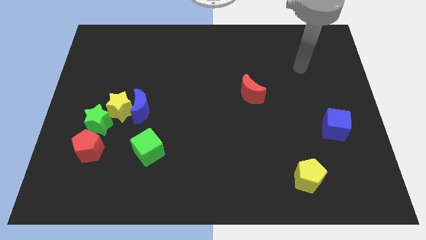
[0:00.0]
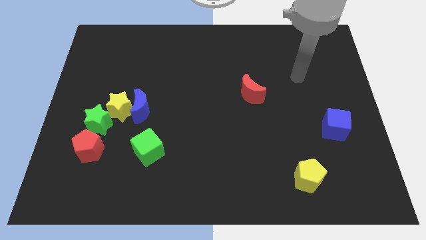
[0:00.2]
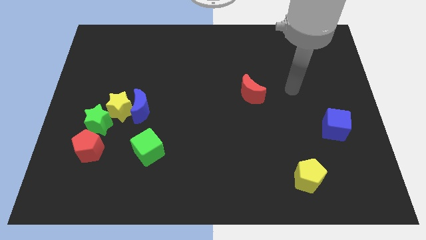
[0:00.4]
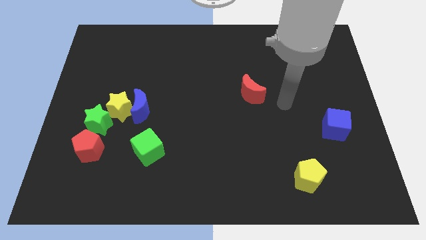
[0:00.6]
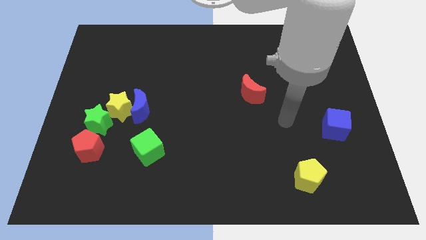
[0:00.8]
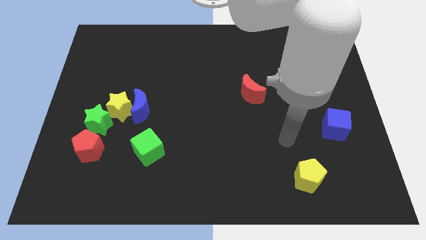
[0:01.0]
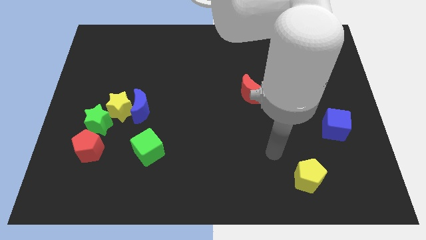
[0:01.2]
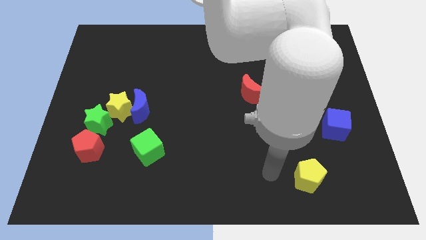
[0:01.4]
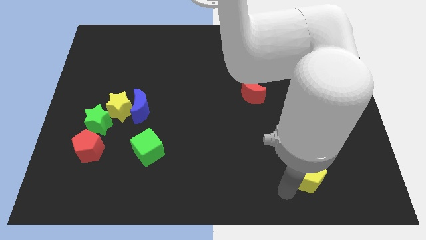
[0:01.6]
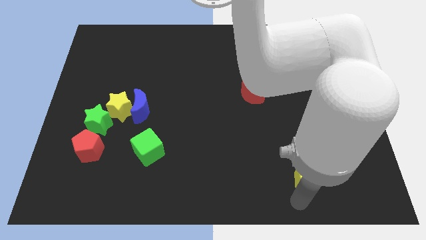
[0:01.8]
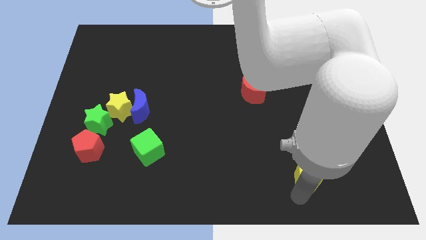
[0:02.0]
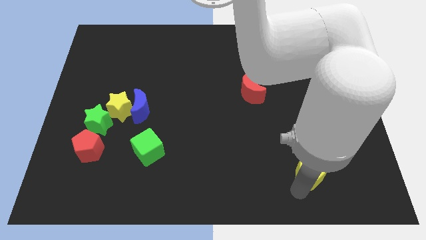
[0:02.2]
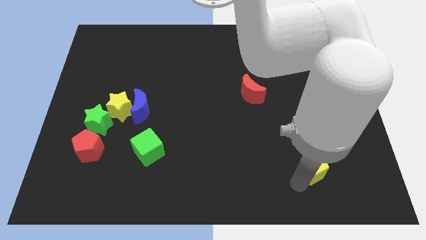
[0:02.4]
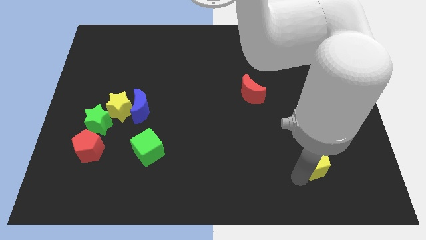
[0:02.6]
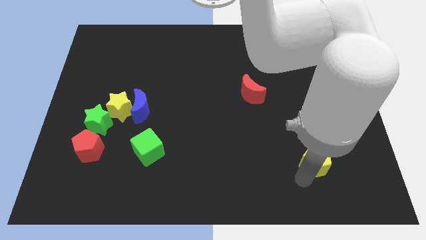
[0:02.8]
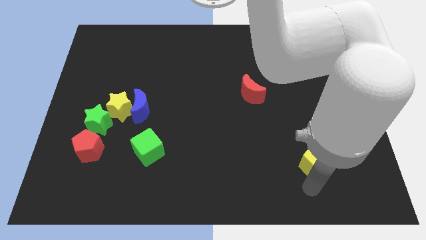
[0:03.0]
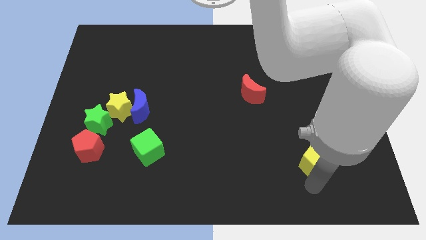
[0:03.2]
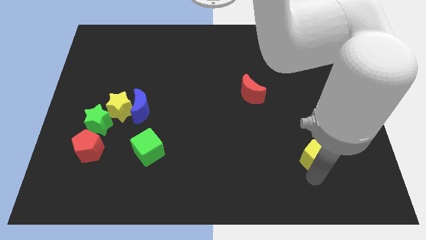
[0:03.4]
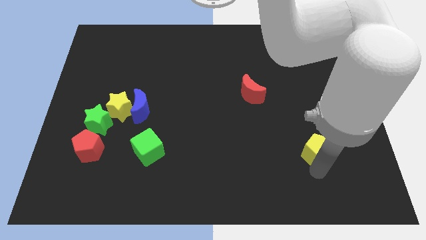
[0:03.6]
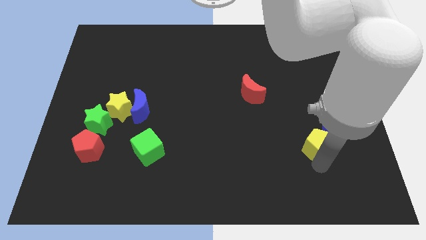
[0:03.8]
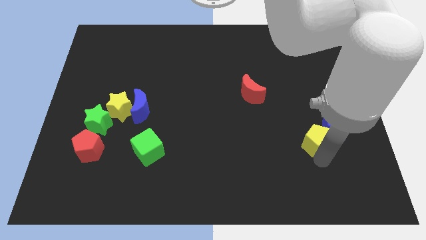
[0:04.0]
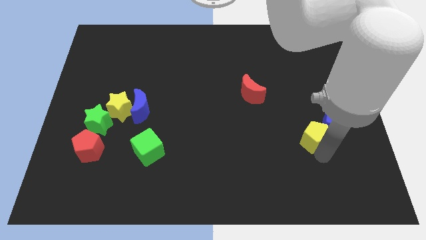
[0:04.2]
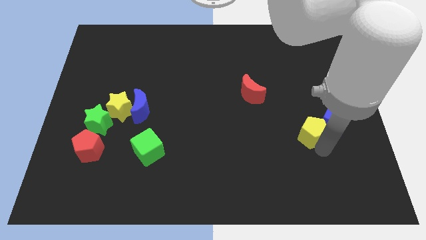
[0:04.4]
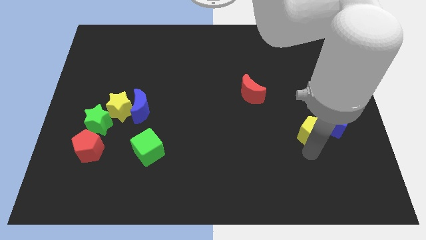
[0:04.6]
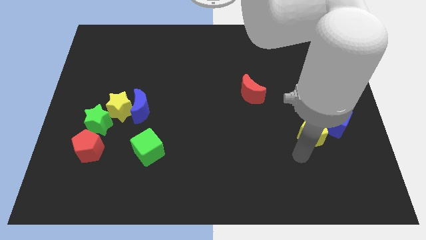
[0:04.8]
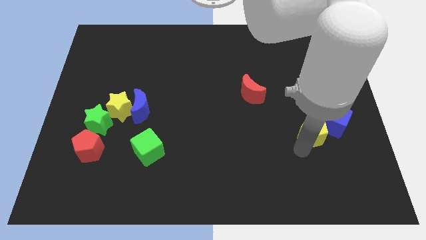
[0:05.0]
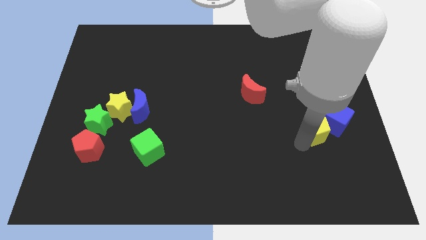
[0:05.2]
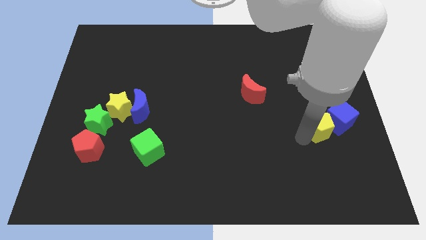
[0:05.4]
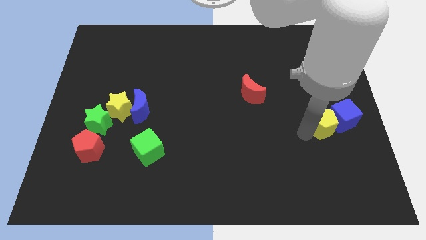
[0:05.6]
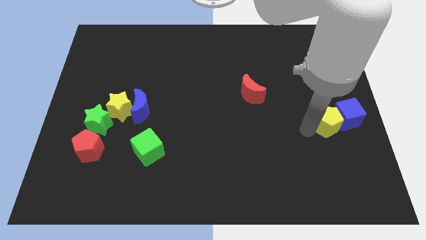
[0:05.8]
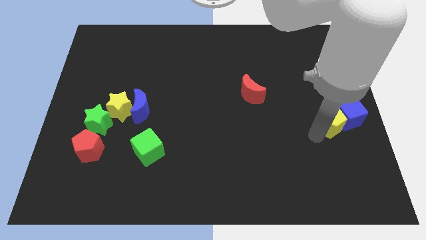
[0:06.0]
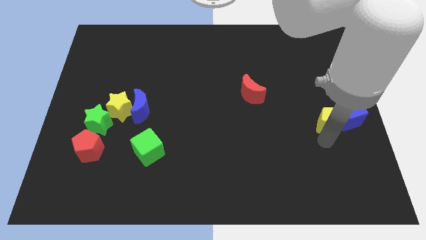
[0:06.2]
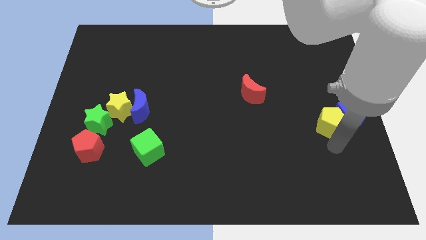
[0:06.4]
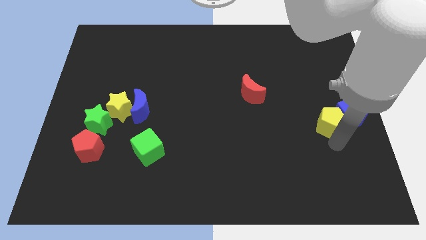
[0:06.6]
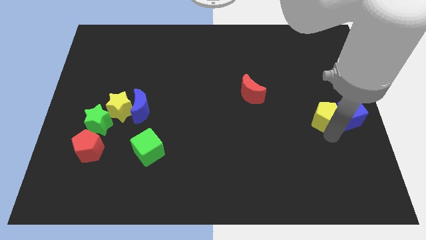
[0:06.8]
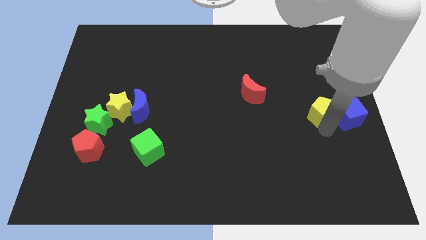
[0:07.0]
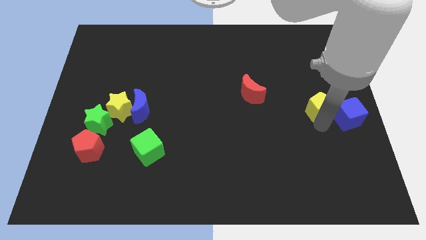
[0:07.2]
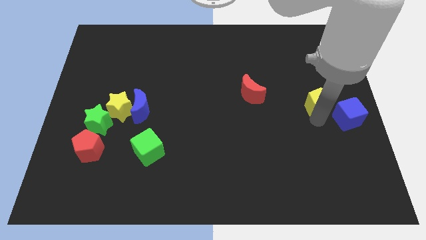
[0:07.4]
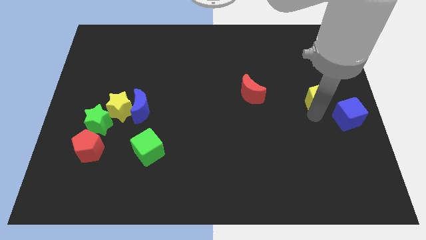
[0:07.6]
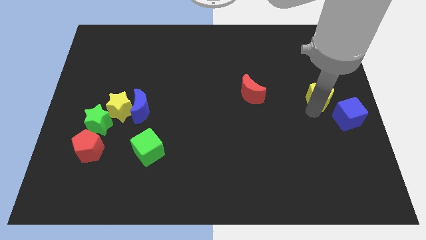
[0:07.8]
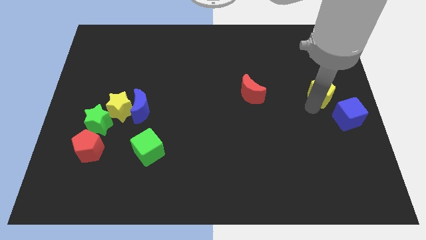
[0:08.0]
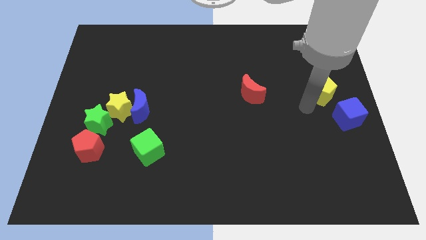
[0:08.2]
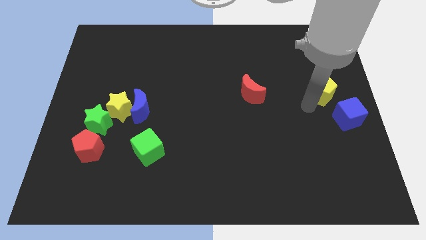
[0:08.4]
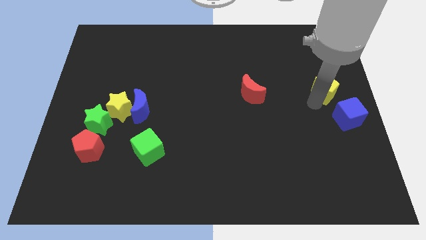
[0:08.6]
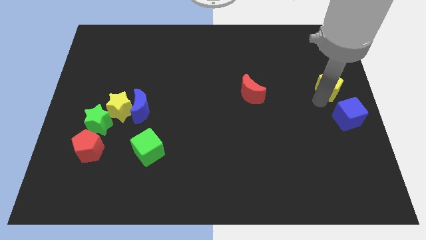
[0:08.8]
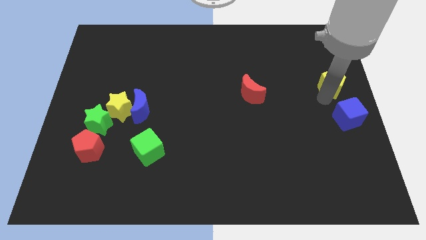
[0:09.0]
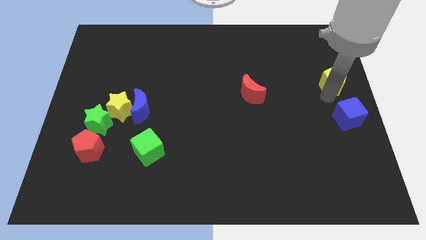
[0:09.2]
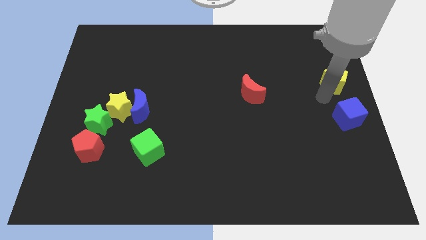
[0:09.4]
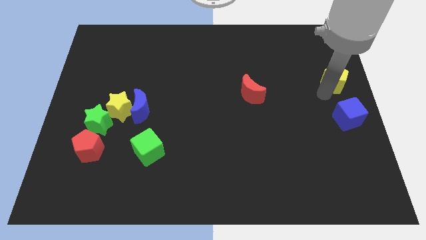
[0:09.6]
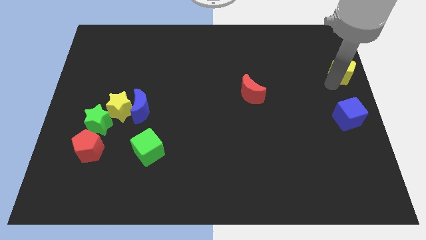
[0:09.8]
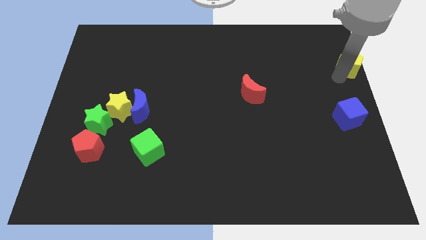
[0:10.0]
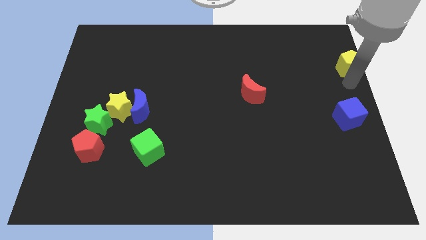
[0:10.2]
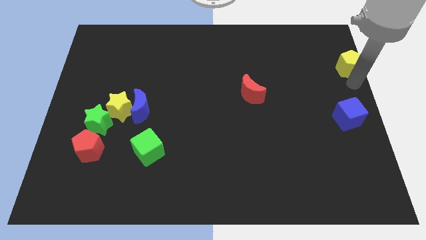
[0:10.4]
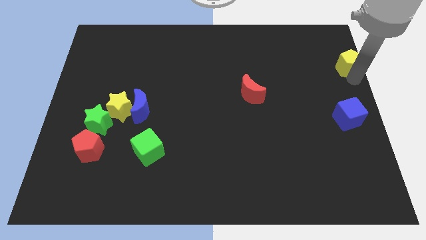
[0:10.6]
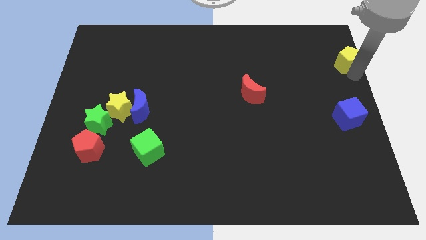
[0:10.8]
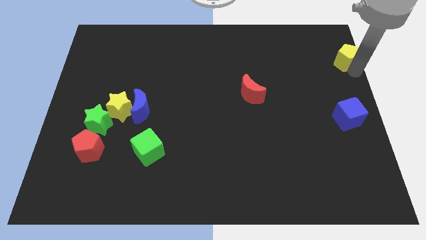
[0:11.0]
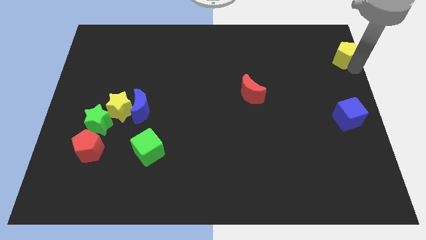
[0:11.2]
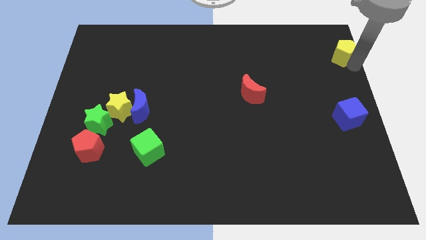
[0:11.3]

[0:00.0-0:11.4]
push the yellow pentagon to the top right corner

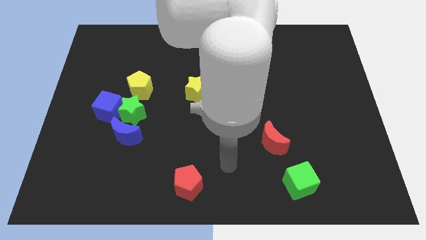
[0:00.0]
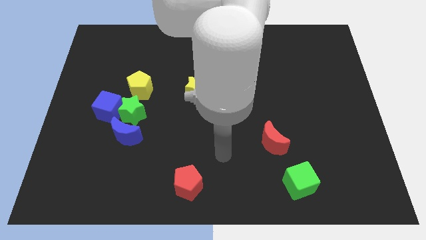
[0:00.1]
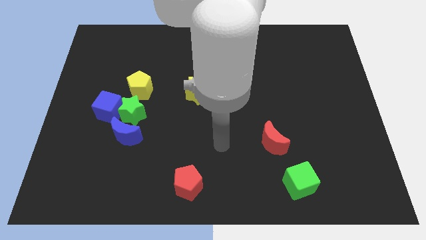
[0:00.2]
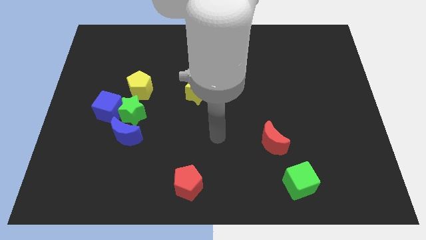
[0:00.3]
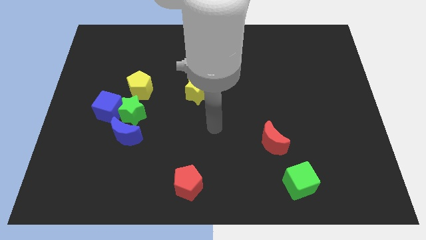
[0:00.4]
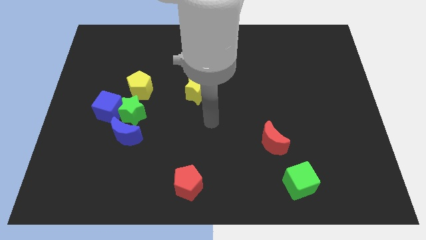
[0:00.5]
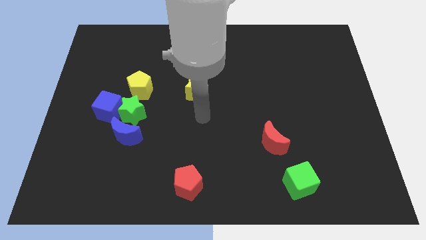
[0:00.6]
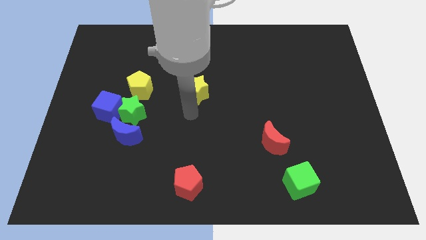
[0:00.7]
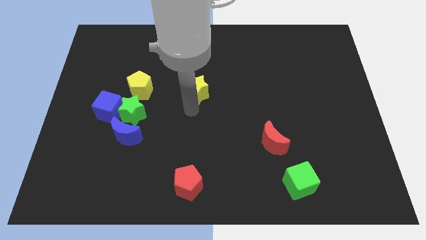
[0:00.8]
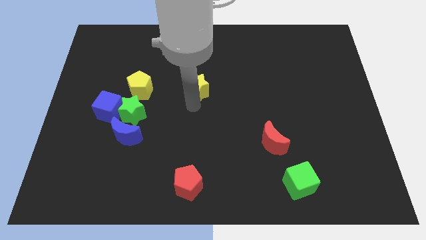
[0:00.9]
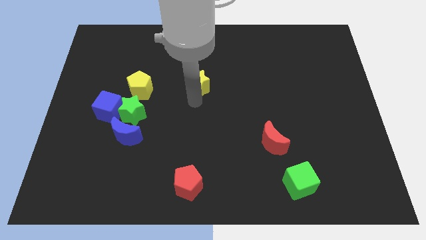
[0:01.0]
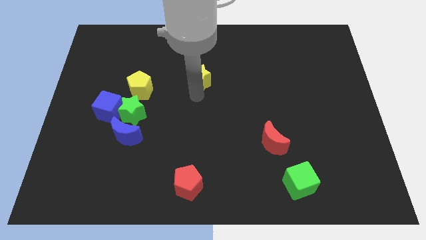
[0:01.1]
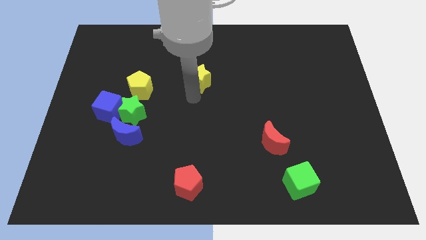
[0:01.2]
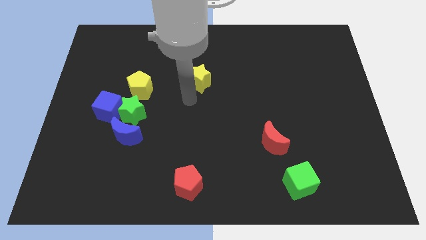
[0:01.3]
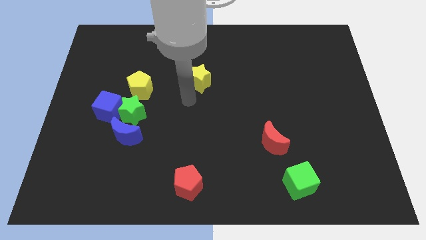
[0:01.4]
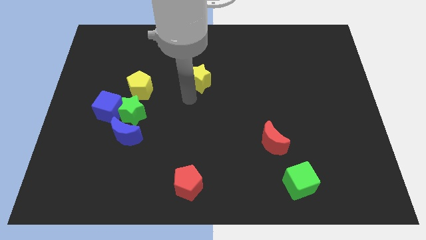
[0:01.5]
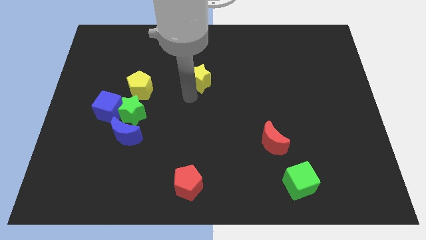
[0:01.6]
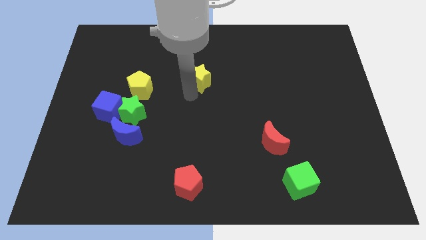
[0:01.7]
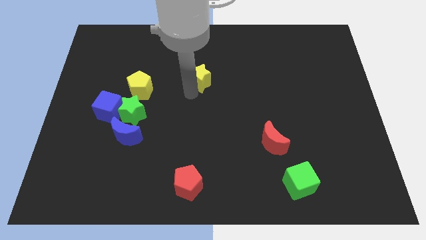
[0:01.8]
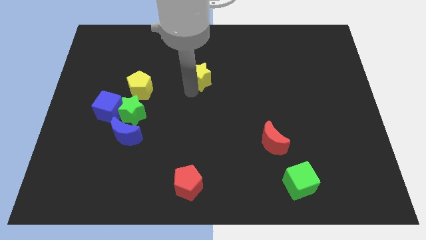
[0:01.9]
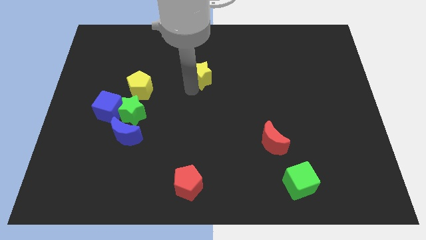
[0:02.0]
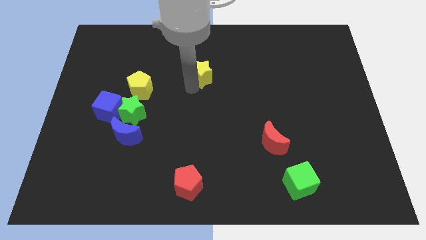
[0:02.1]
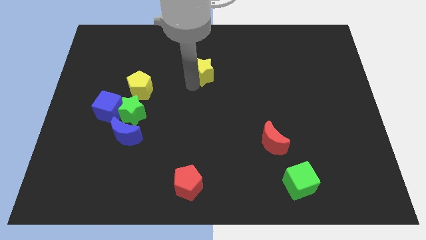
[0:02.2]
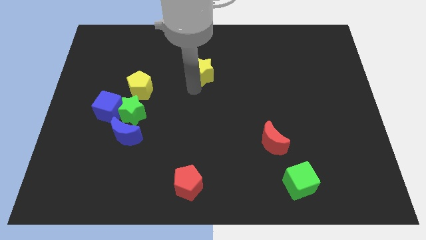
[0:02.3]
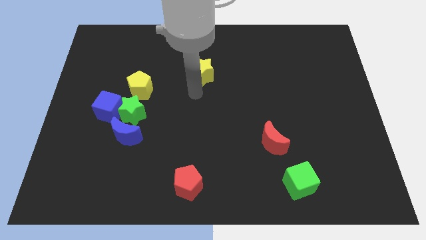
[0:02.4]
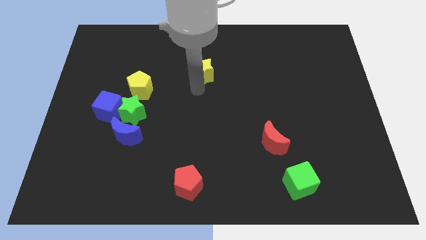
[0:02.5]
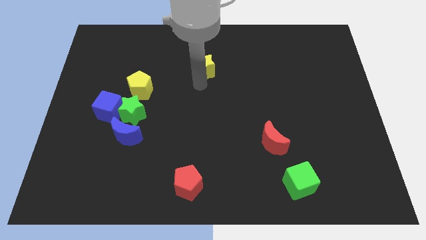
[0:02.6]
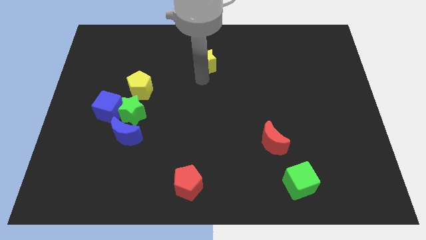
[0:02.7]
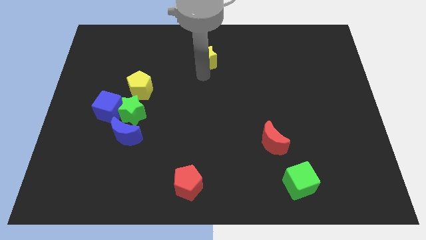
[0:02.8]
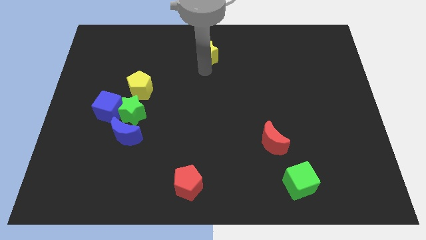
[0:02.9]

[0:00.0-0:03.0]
move the yellow star to the top
